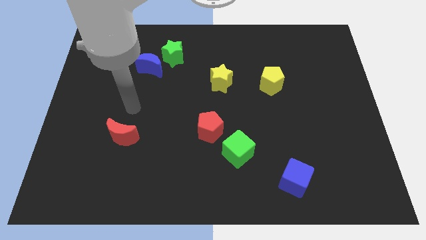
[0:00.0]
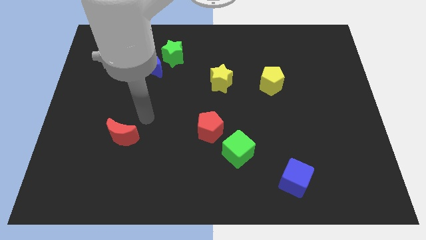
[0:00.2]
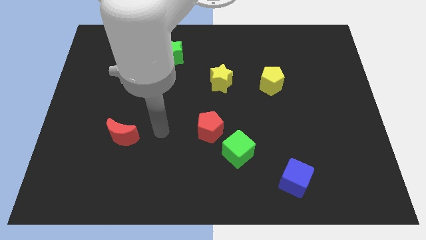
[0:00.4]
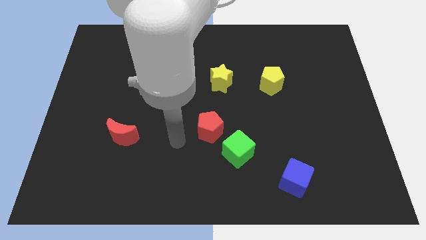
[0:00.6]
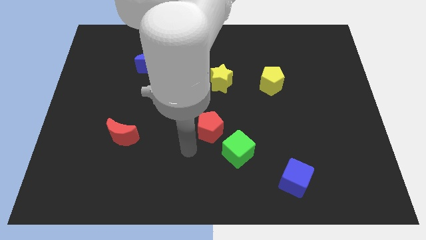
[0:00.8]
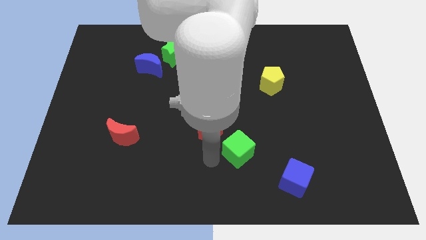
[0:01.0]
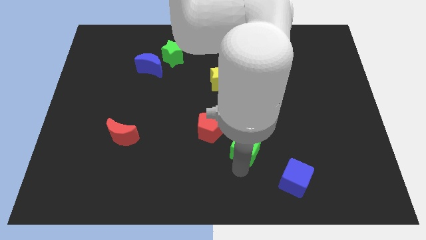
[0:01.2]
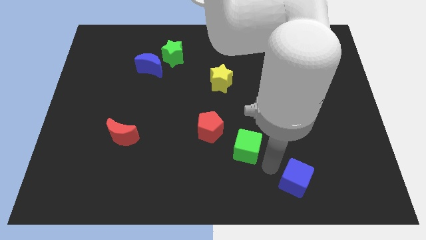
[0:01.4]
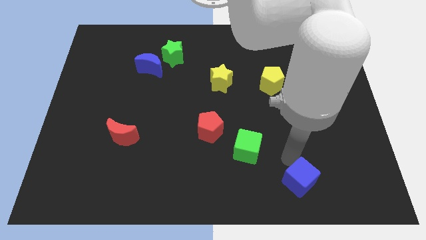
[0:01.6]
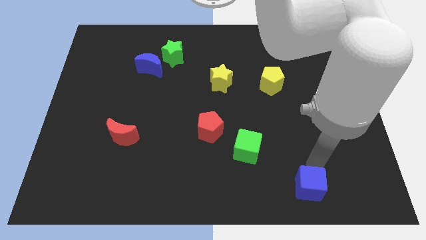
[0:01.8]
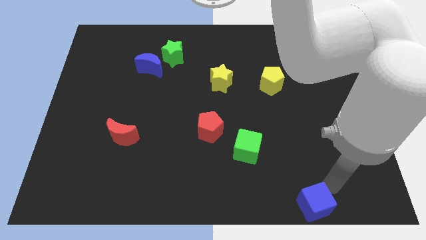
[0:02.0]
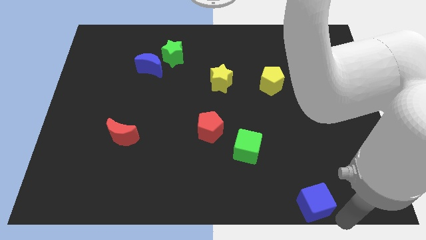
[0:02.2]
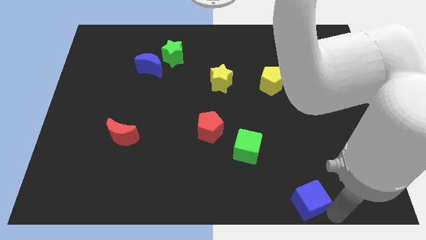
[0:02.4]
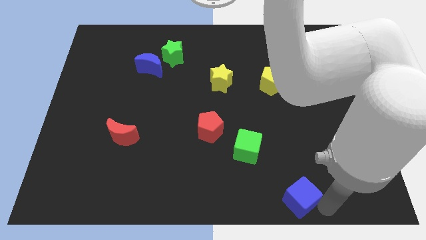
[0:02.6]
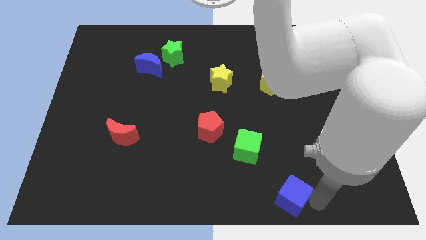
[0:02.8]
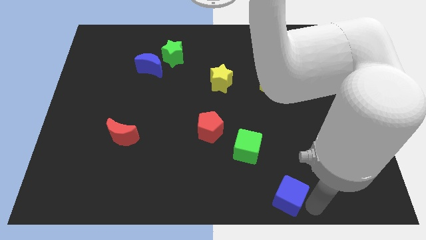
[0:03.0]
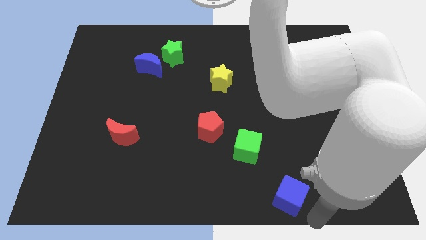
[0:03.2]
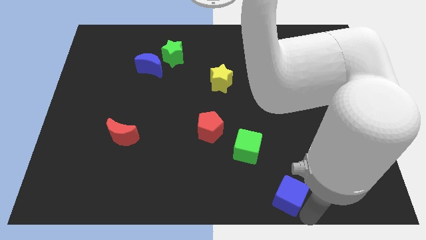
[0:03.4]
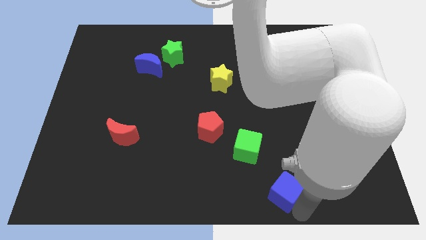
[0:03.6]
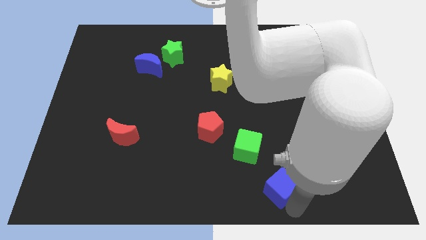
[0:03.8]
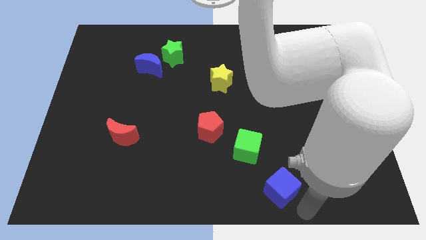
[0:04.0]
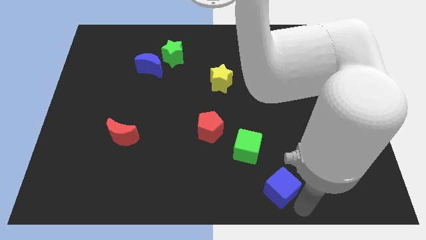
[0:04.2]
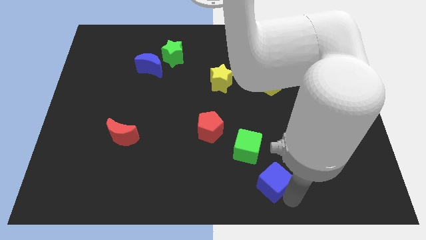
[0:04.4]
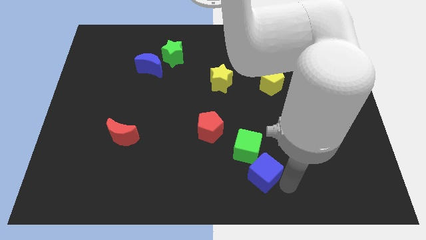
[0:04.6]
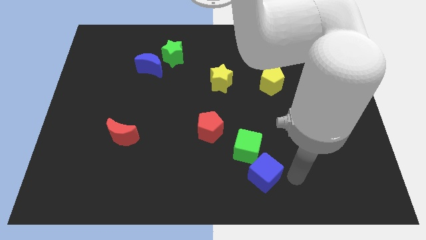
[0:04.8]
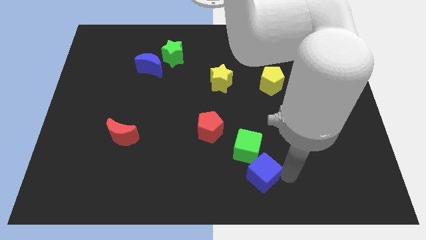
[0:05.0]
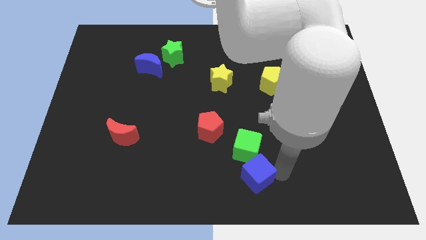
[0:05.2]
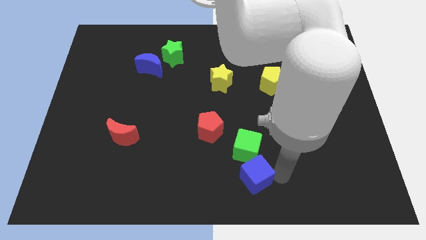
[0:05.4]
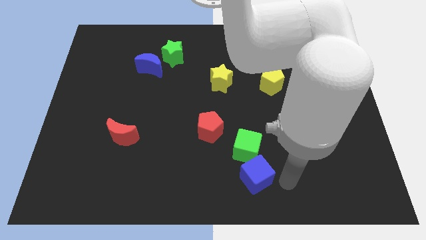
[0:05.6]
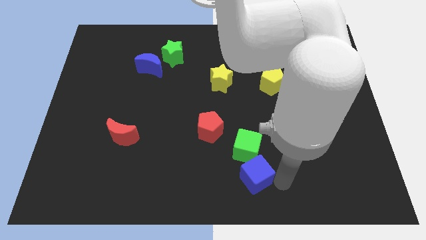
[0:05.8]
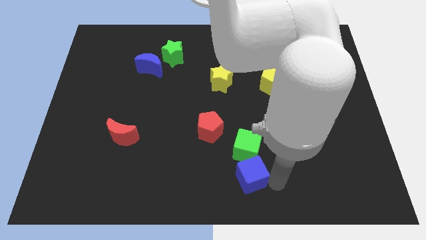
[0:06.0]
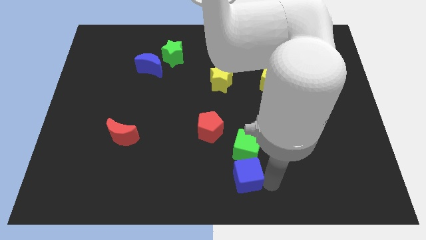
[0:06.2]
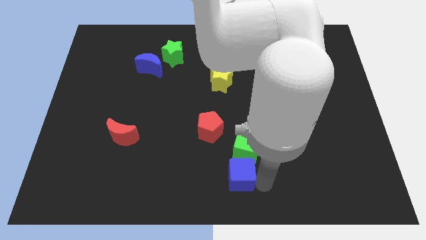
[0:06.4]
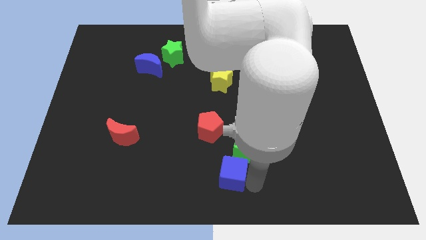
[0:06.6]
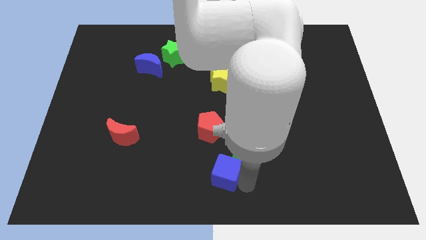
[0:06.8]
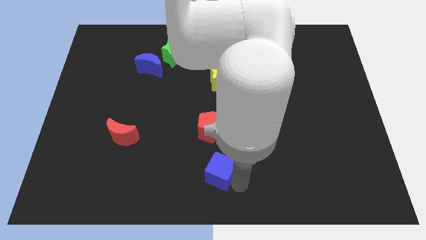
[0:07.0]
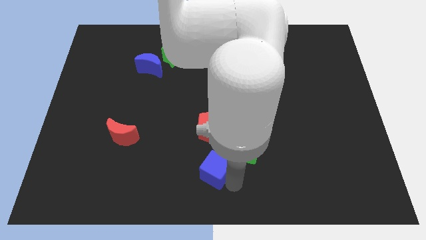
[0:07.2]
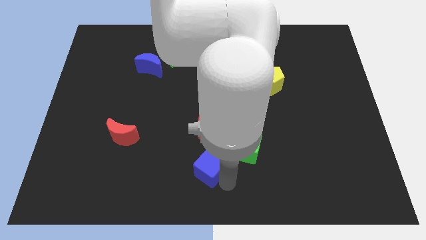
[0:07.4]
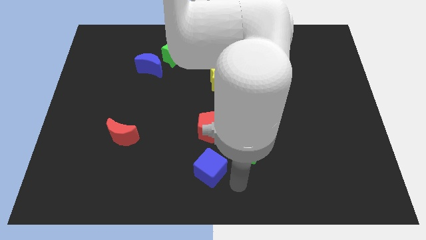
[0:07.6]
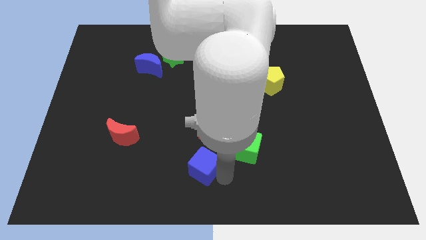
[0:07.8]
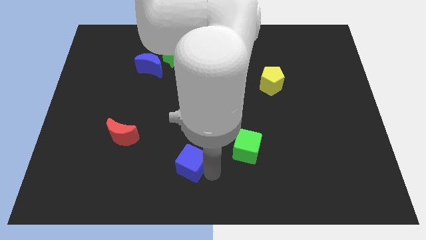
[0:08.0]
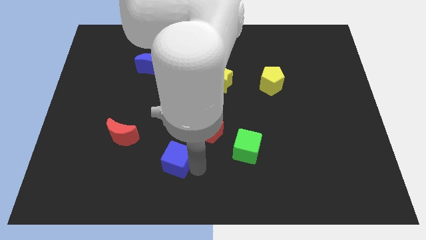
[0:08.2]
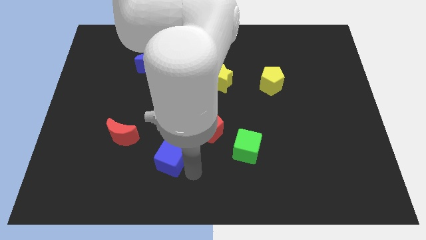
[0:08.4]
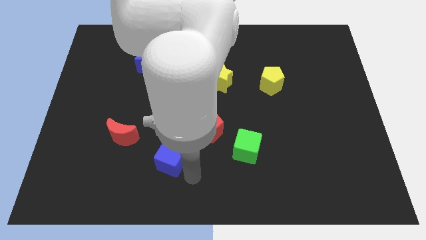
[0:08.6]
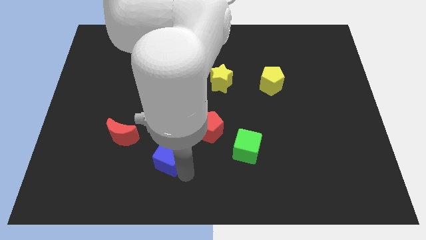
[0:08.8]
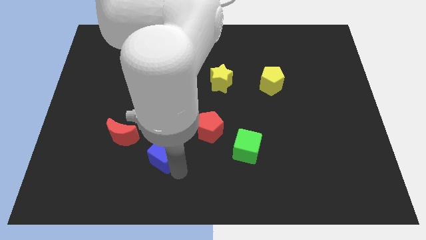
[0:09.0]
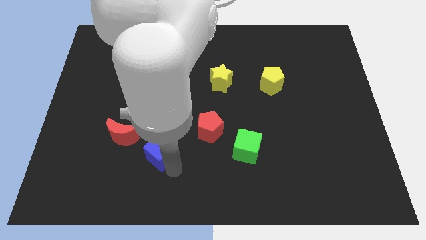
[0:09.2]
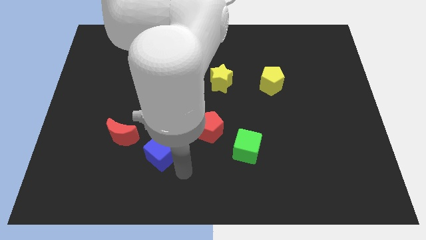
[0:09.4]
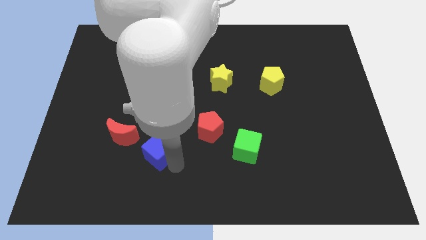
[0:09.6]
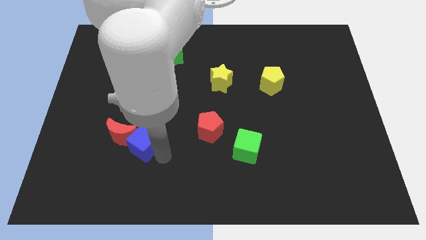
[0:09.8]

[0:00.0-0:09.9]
slide the blue cube close to the red moon

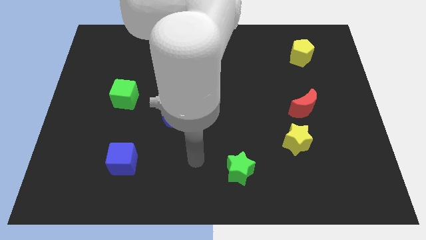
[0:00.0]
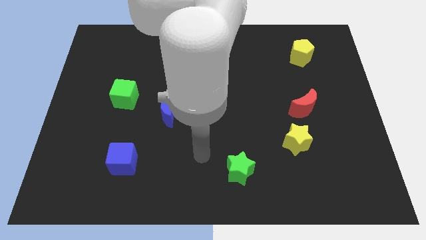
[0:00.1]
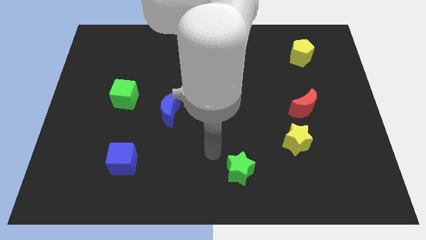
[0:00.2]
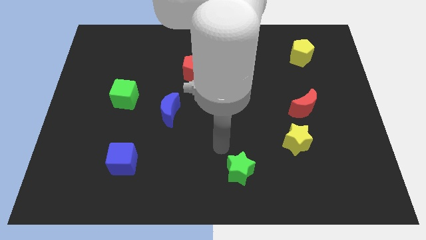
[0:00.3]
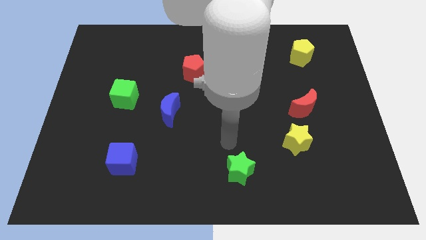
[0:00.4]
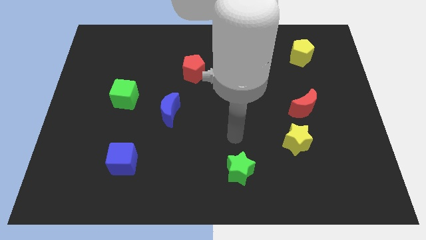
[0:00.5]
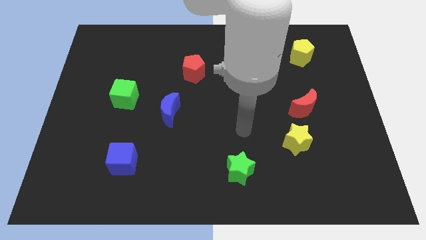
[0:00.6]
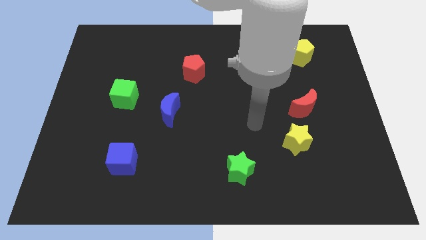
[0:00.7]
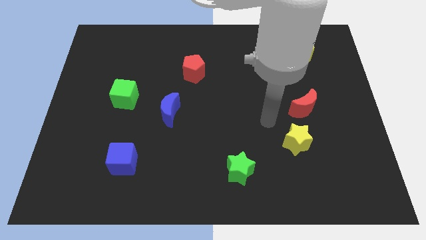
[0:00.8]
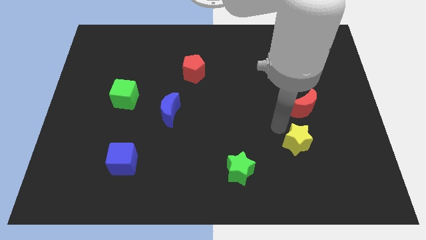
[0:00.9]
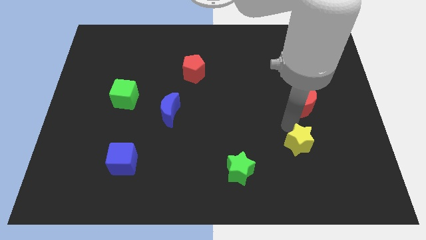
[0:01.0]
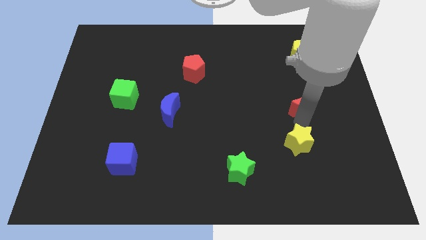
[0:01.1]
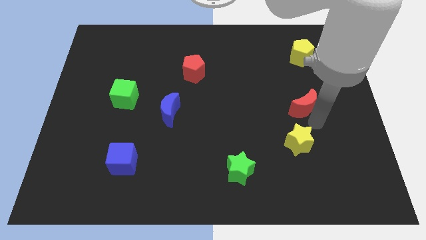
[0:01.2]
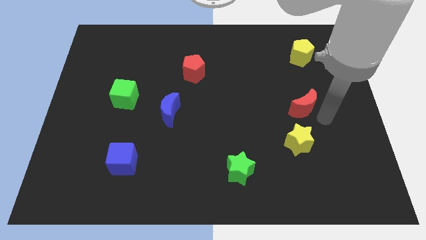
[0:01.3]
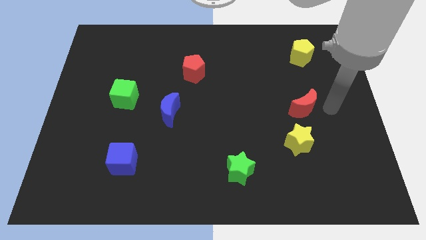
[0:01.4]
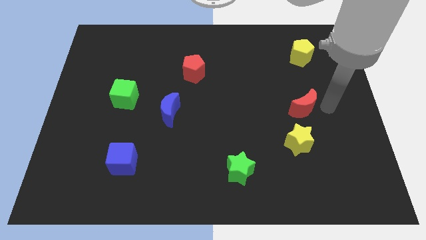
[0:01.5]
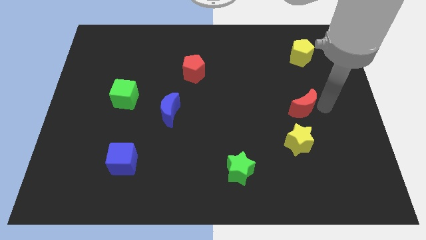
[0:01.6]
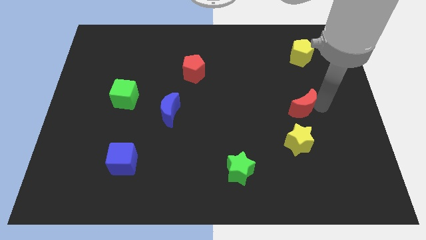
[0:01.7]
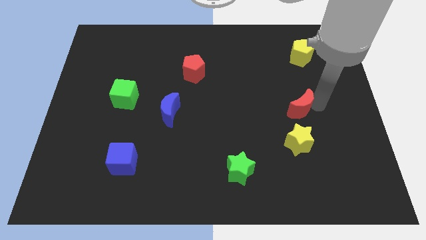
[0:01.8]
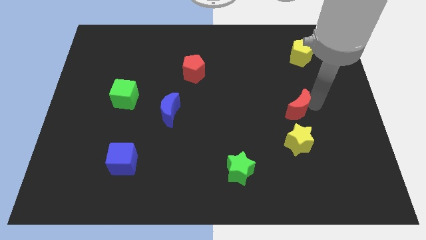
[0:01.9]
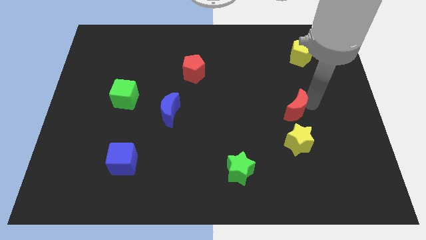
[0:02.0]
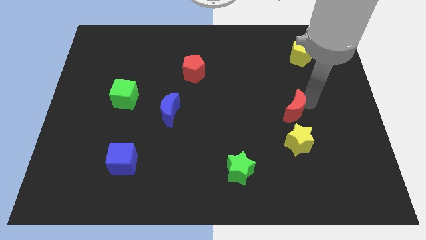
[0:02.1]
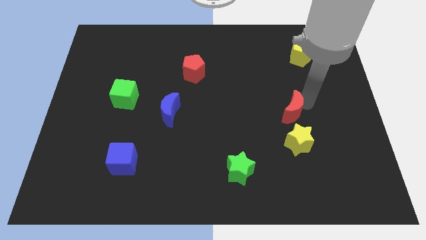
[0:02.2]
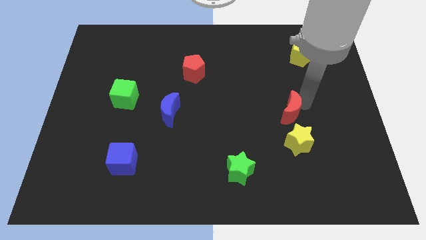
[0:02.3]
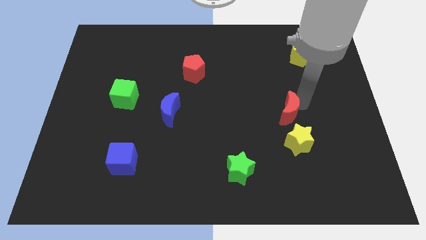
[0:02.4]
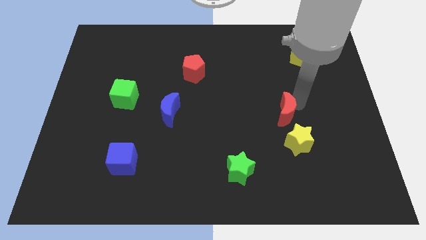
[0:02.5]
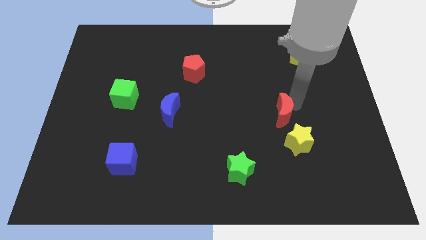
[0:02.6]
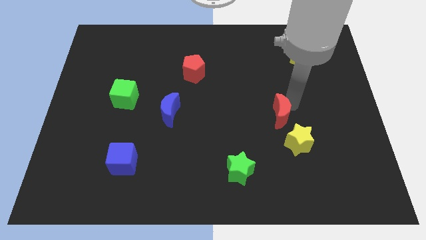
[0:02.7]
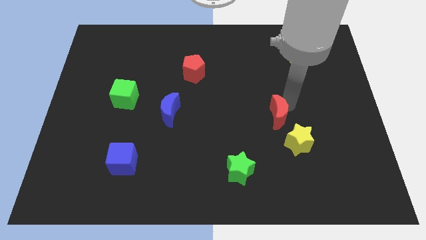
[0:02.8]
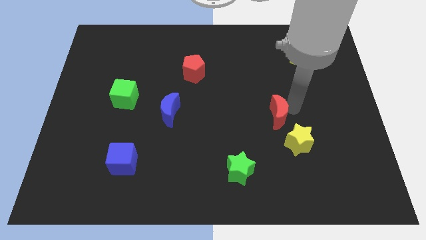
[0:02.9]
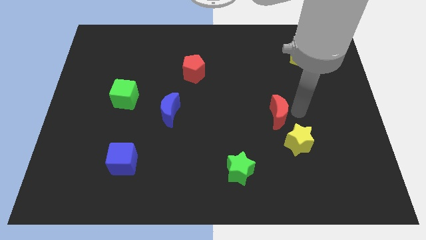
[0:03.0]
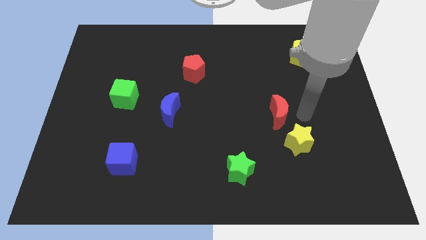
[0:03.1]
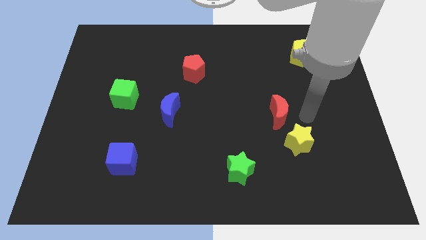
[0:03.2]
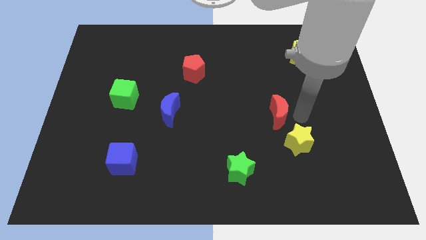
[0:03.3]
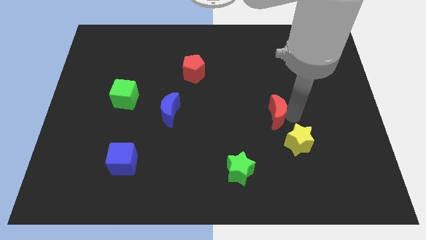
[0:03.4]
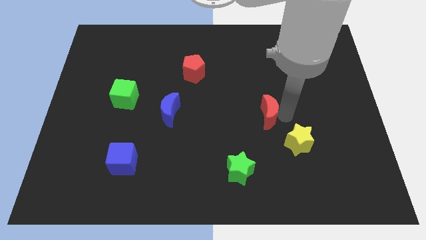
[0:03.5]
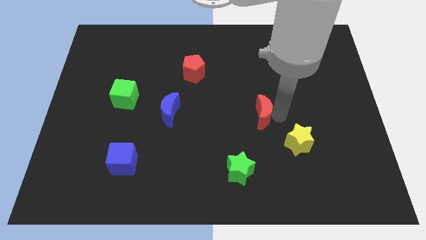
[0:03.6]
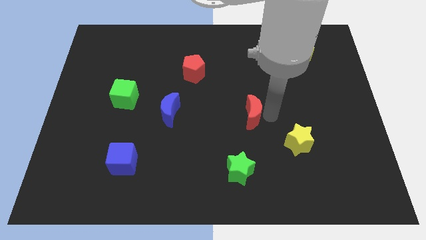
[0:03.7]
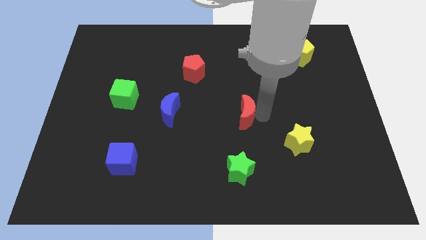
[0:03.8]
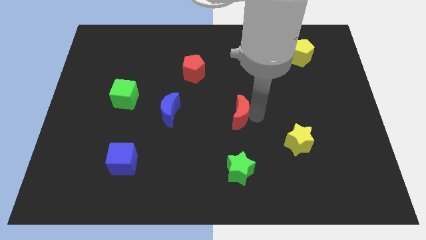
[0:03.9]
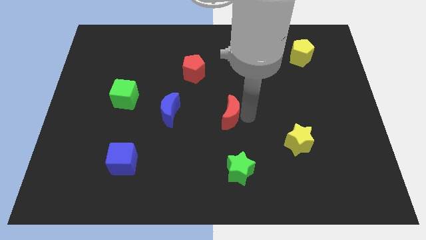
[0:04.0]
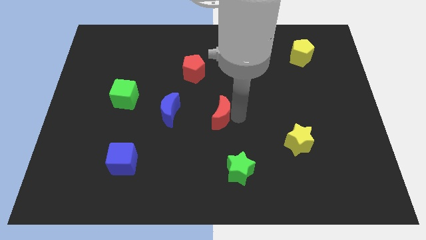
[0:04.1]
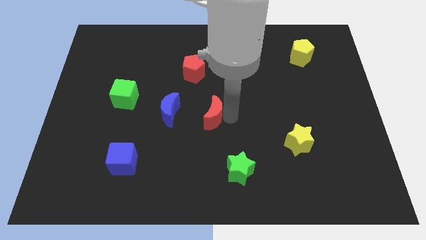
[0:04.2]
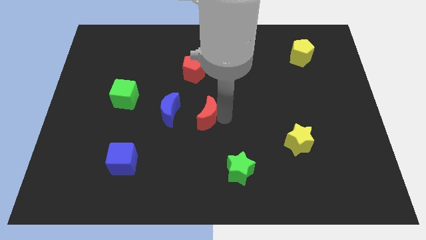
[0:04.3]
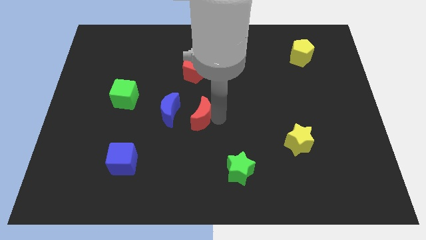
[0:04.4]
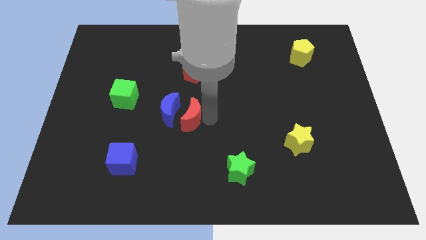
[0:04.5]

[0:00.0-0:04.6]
put the red moon towards the blue moon
